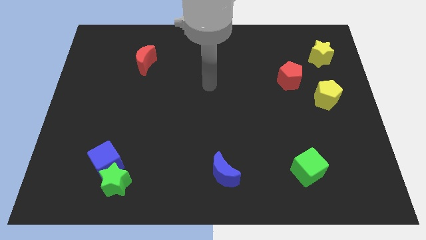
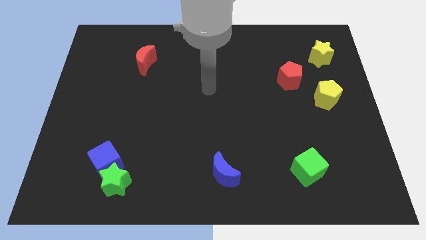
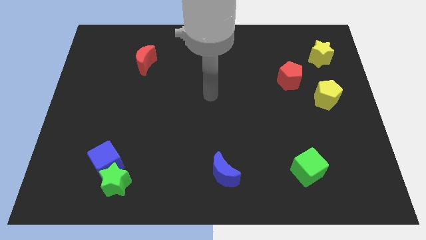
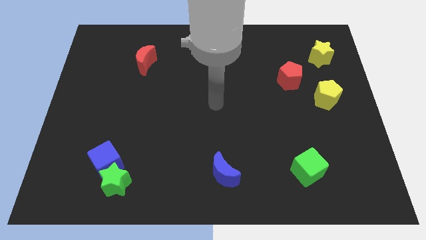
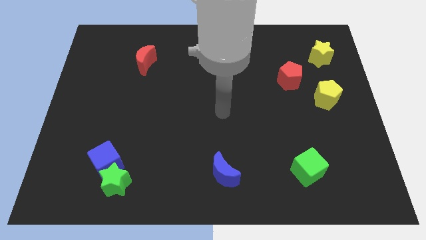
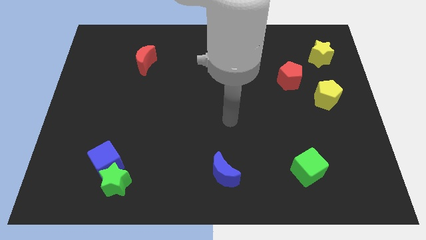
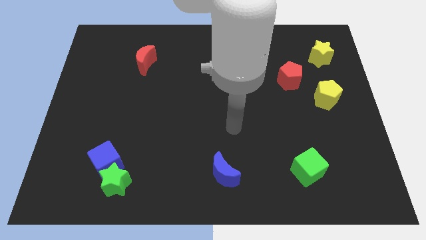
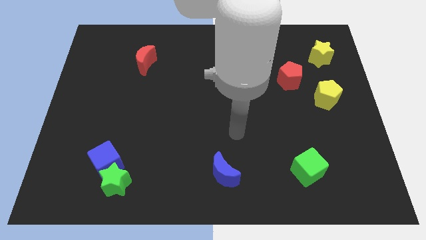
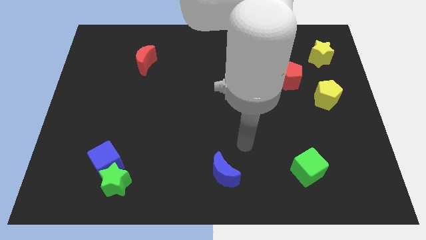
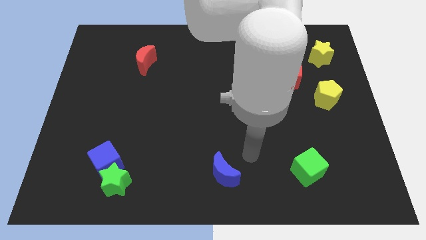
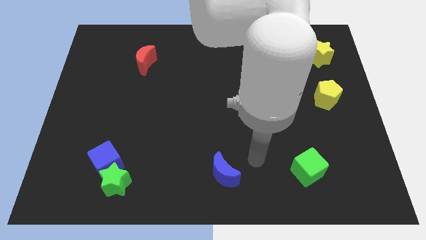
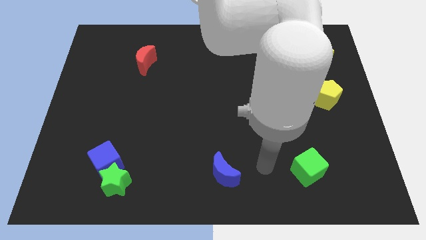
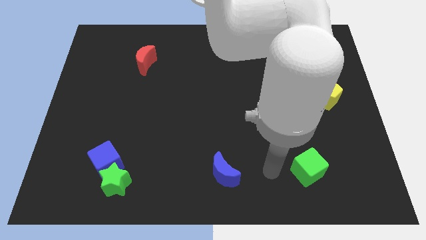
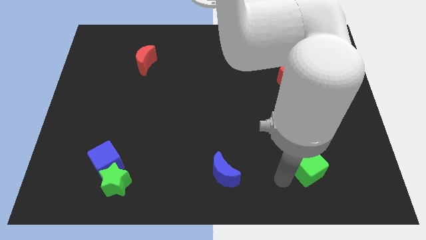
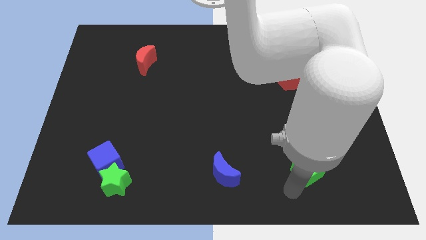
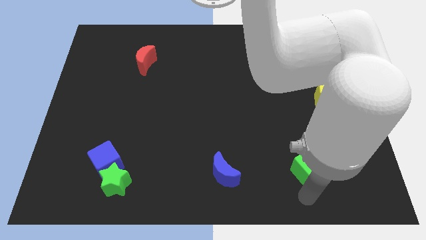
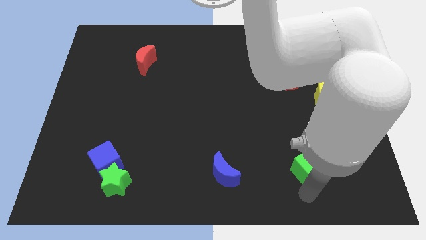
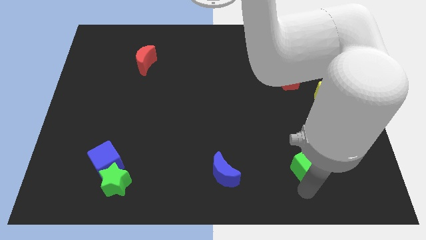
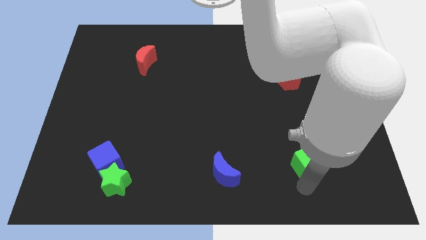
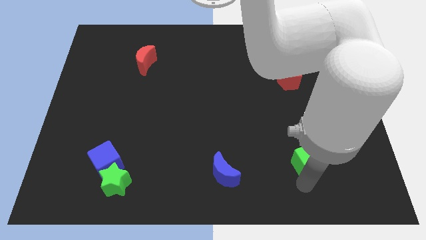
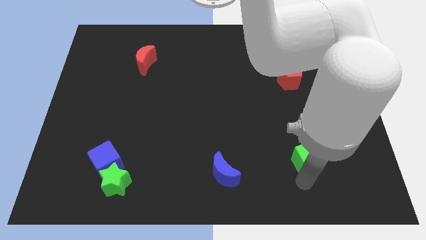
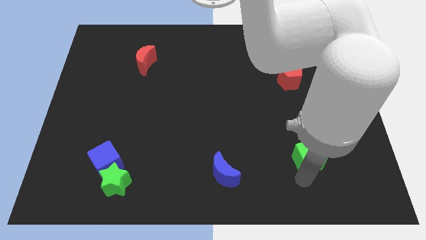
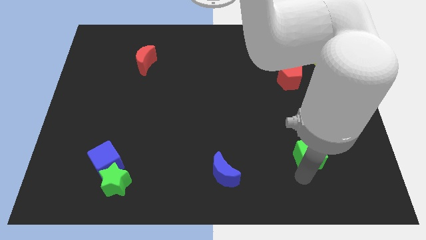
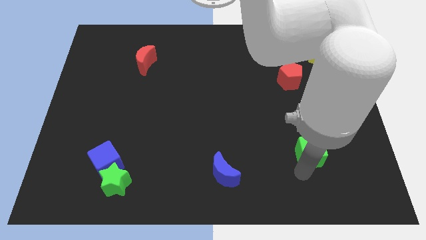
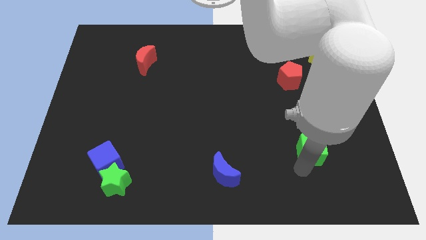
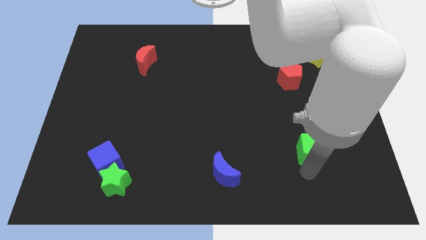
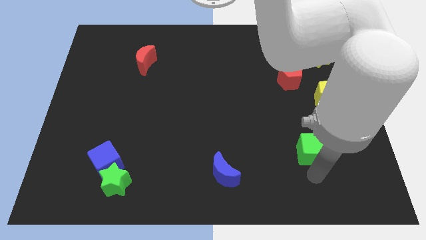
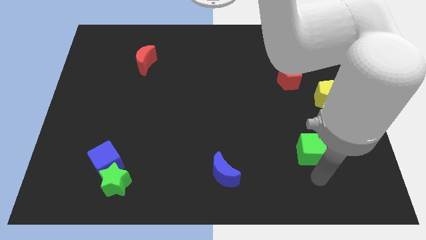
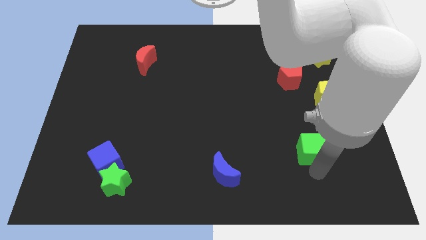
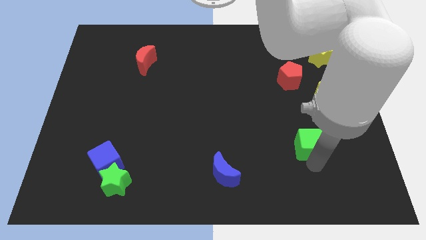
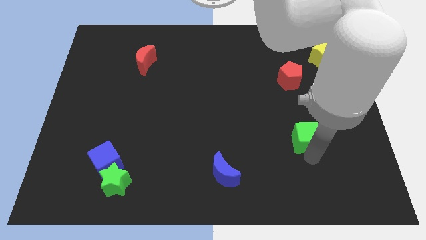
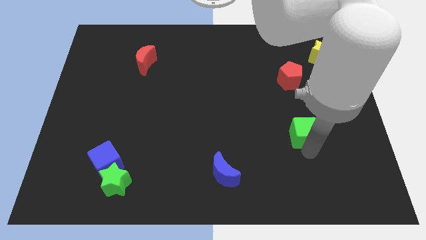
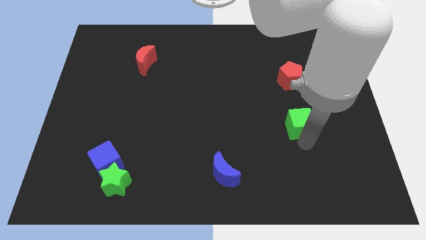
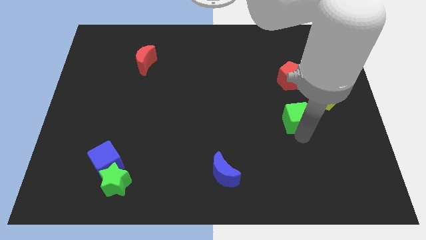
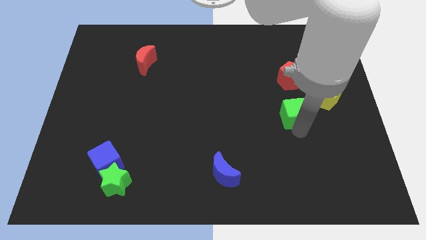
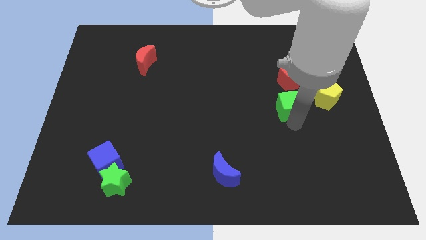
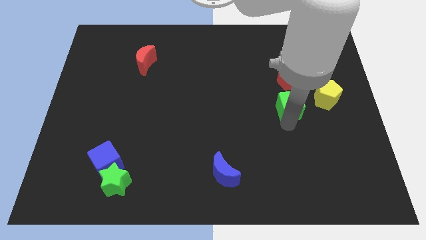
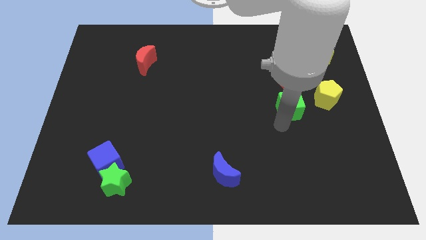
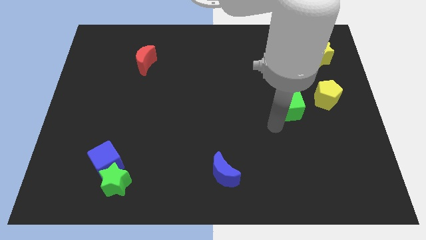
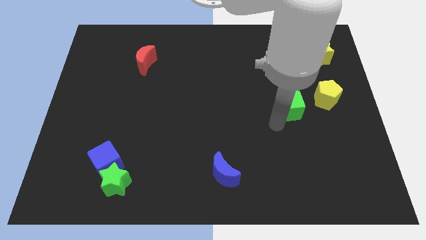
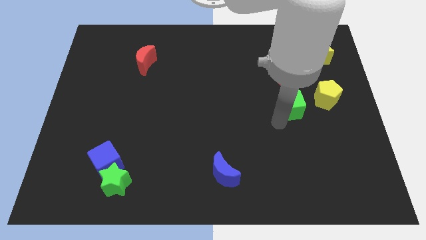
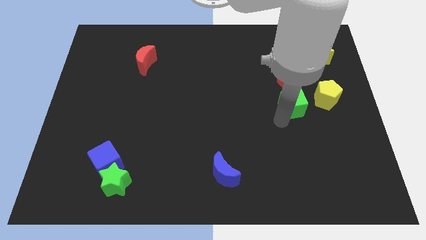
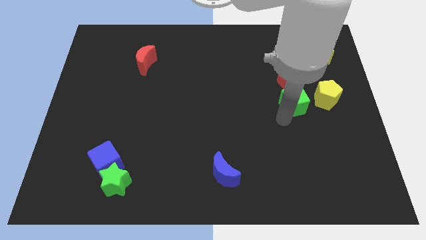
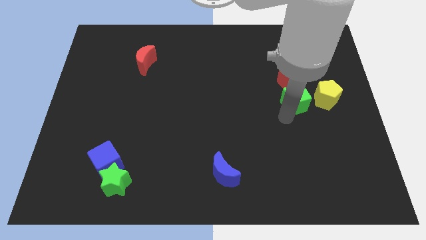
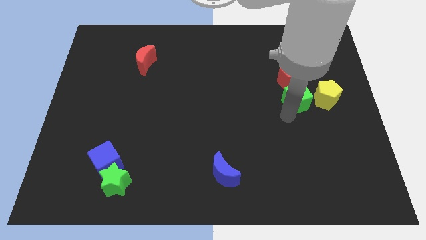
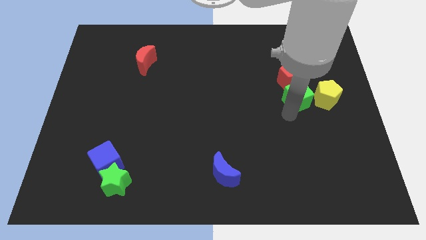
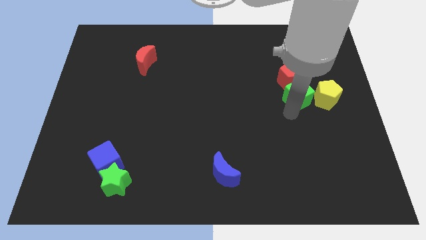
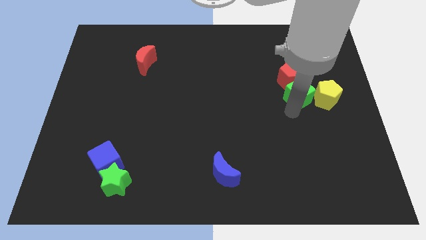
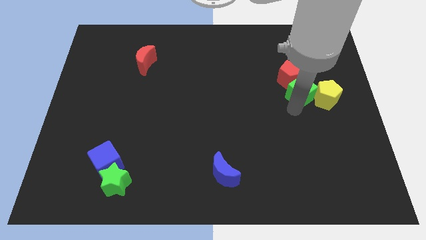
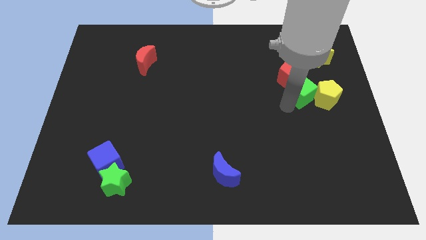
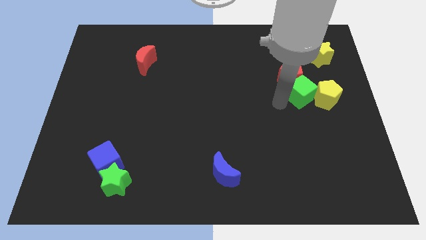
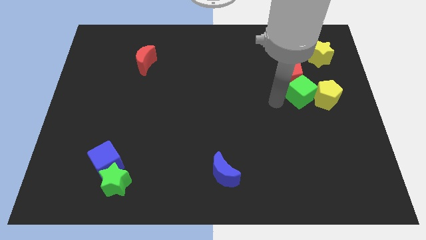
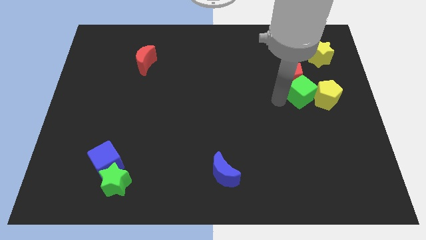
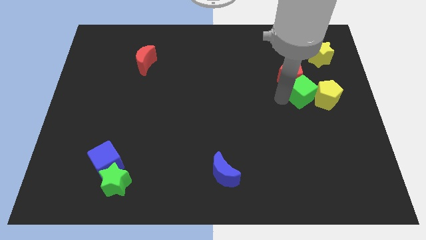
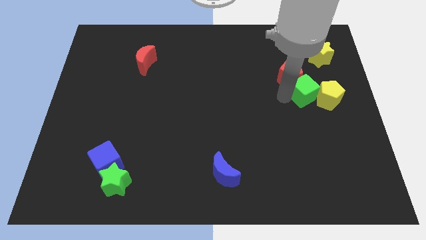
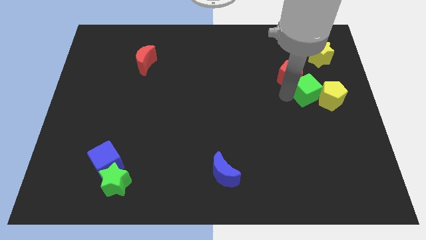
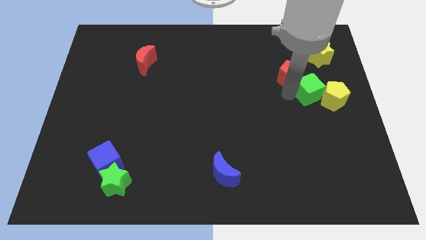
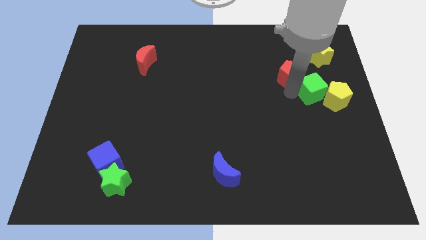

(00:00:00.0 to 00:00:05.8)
move the green cube to the bottom side of the yellow star

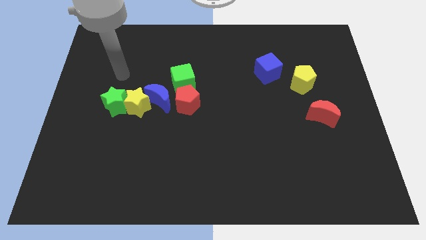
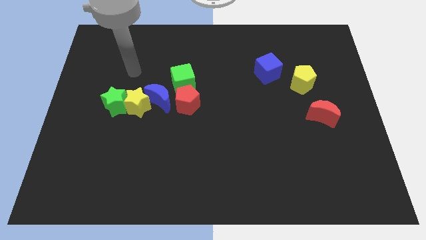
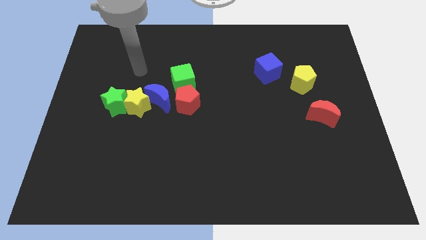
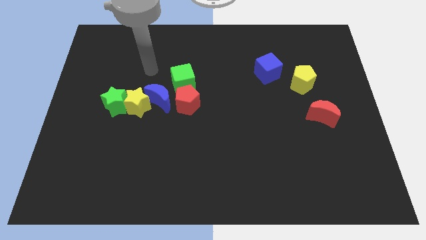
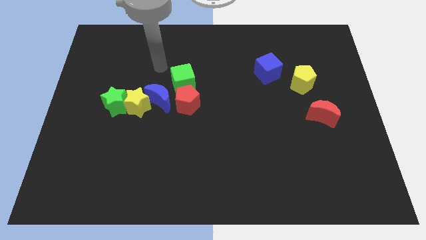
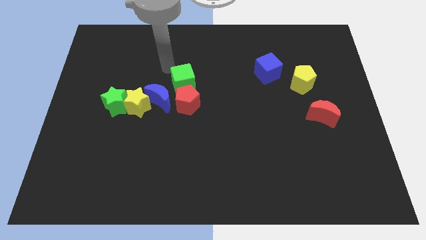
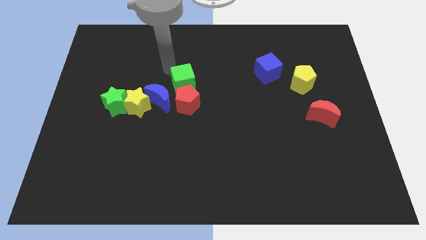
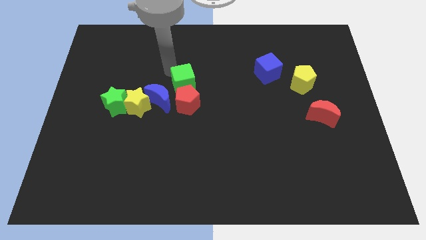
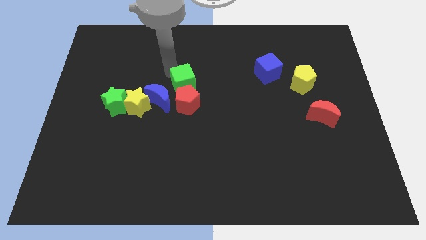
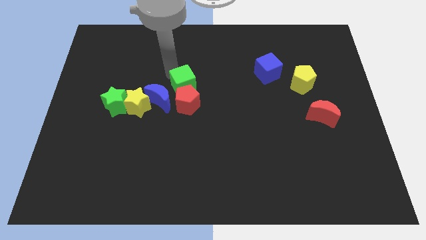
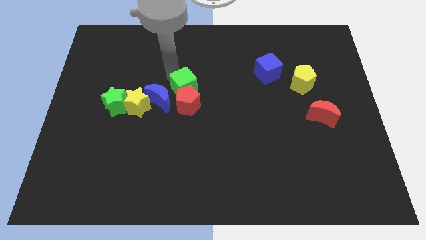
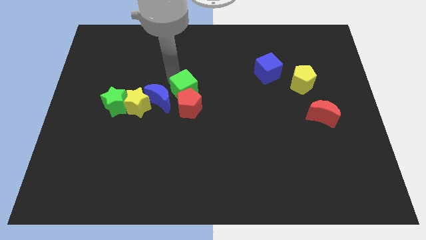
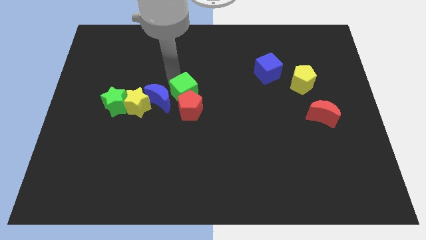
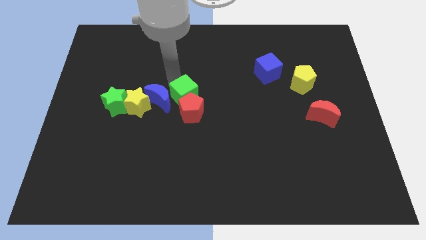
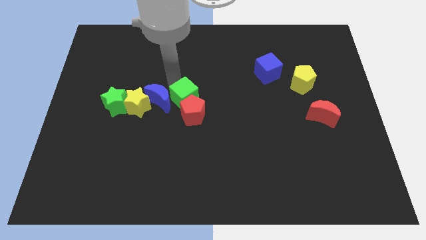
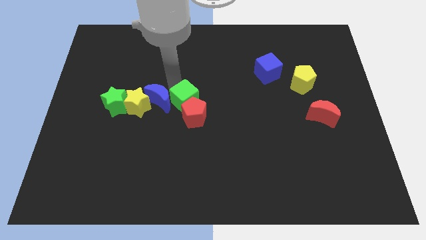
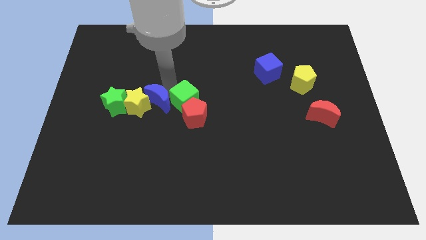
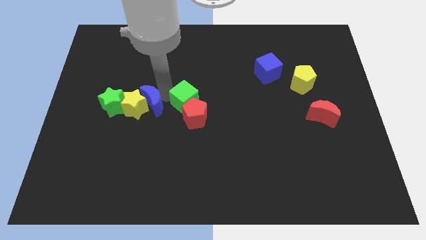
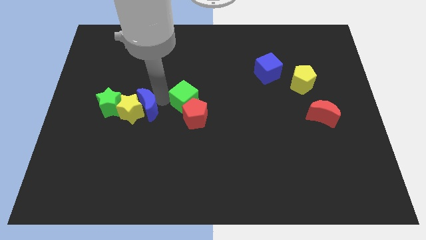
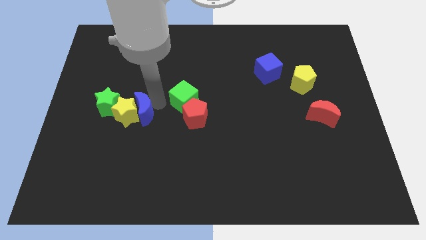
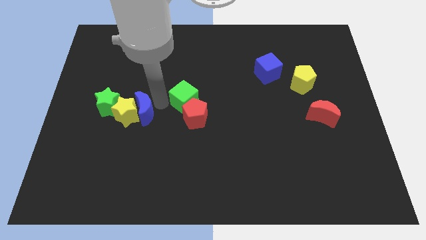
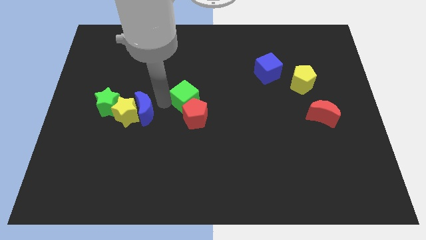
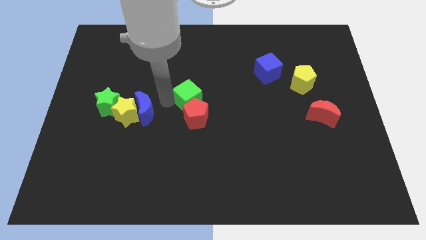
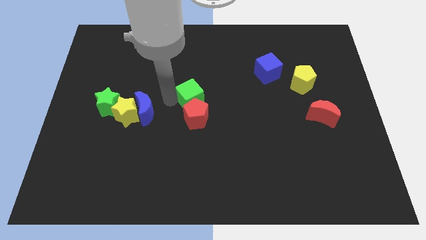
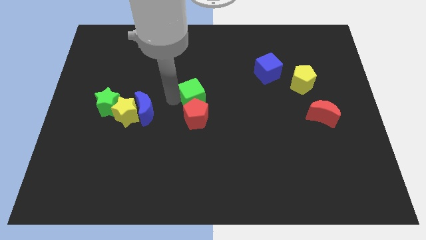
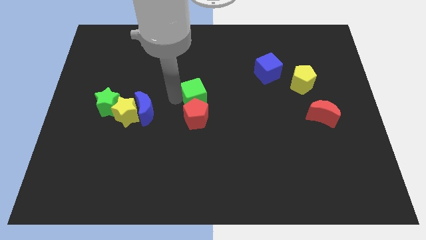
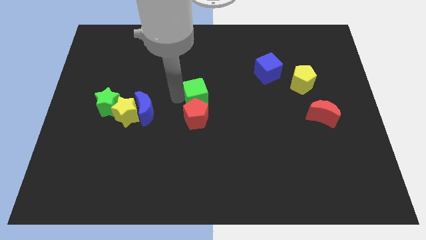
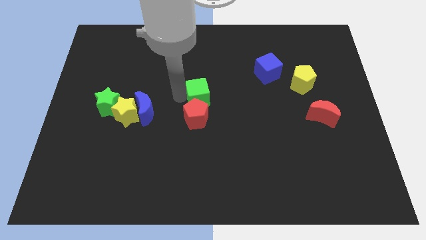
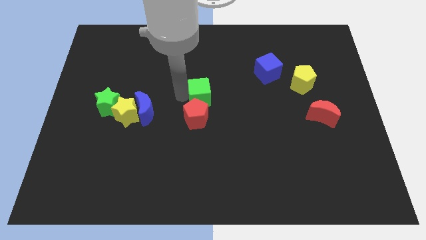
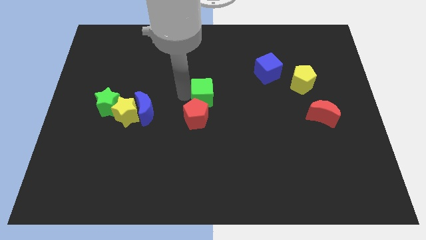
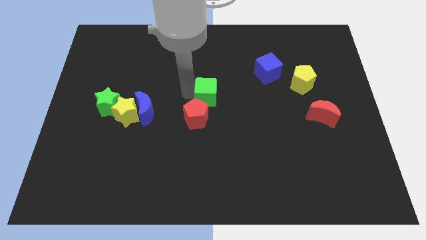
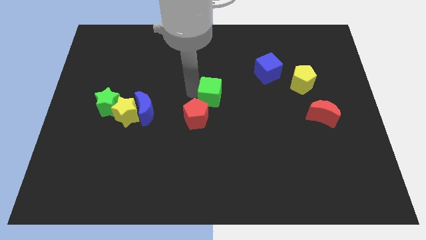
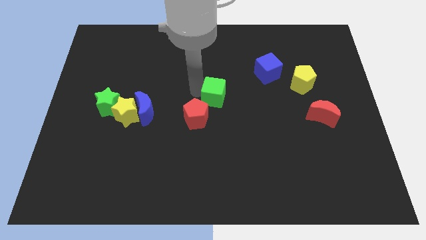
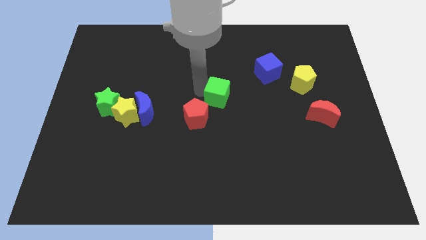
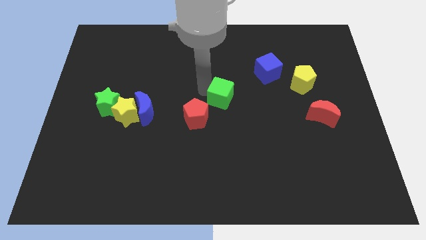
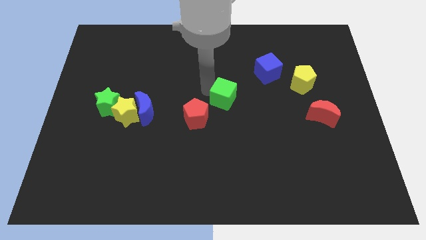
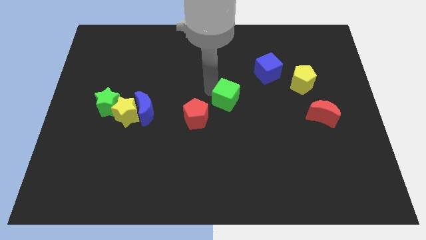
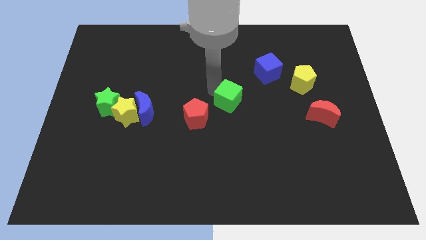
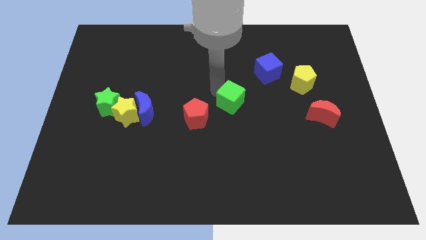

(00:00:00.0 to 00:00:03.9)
slide the green cube to the right of the red pentagon
